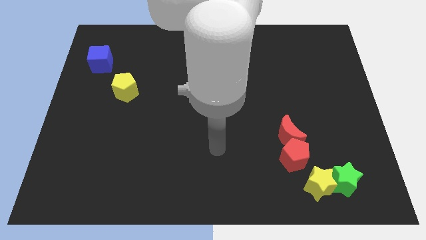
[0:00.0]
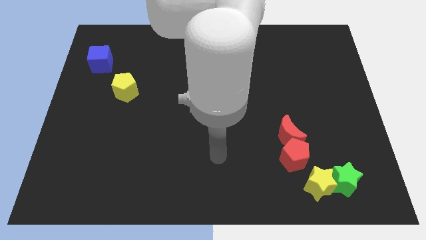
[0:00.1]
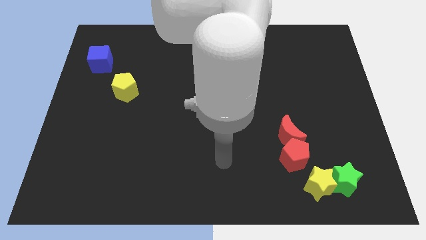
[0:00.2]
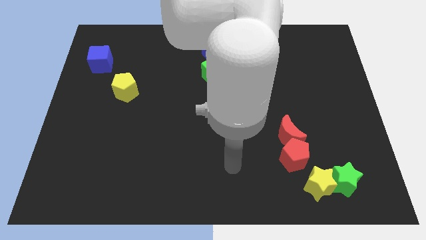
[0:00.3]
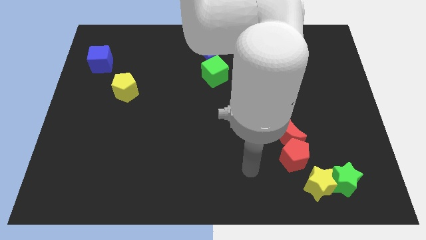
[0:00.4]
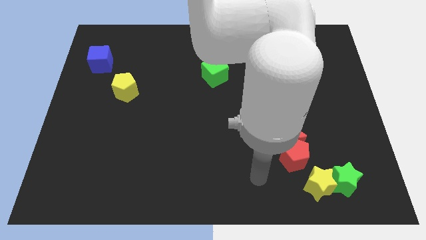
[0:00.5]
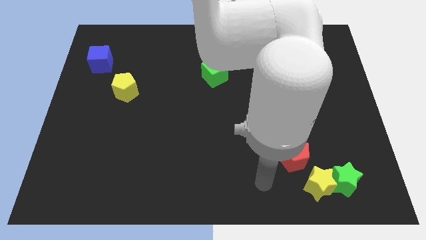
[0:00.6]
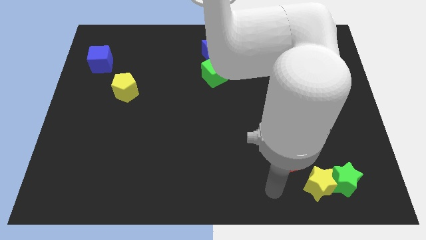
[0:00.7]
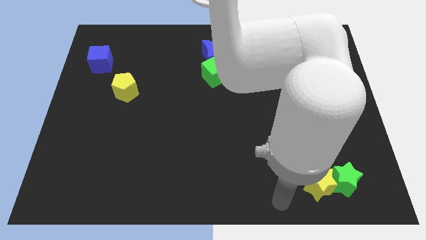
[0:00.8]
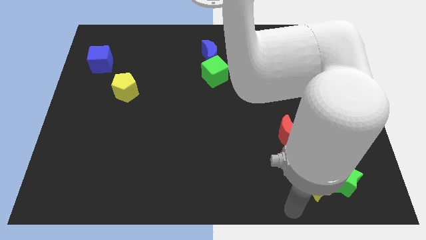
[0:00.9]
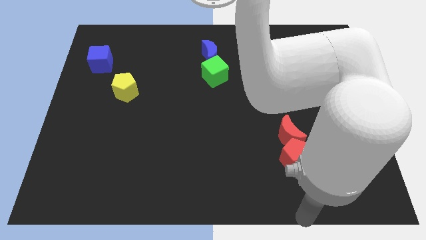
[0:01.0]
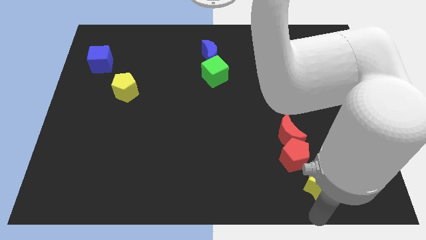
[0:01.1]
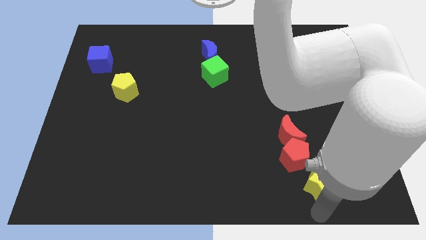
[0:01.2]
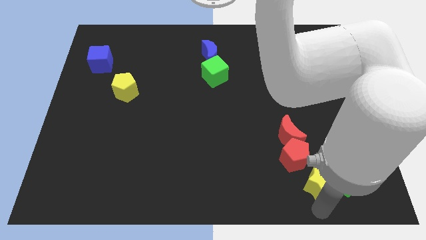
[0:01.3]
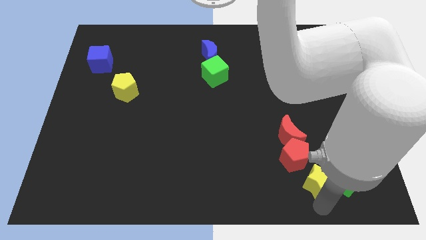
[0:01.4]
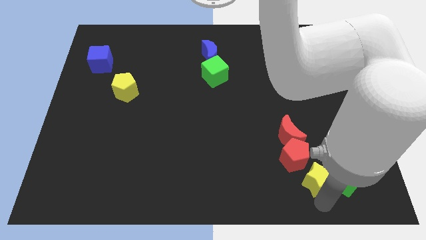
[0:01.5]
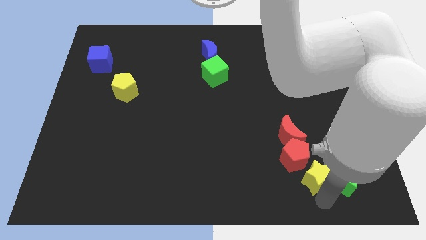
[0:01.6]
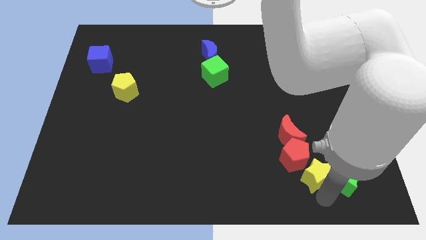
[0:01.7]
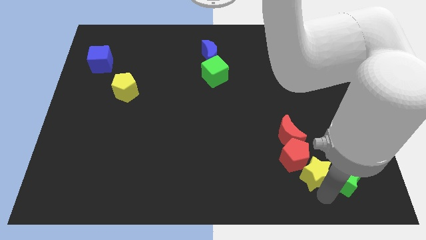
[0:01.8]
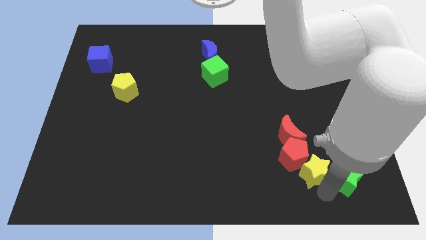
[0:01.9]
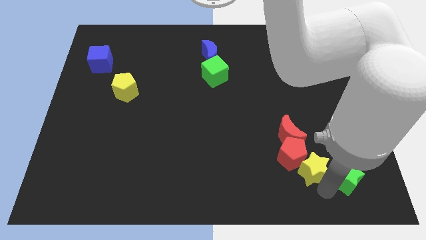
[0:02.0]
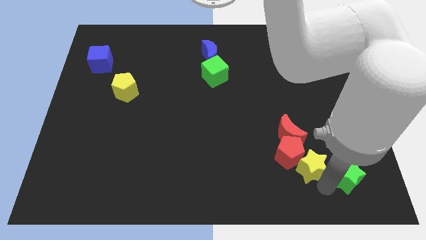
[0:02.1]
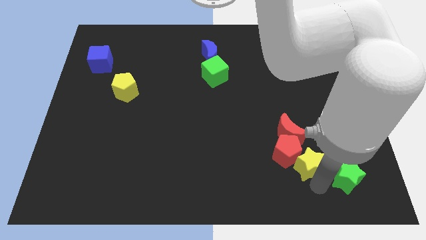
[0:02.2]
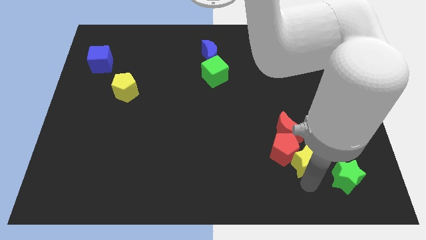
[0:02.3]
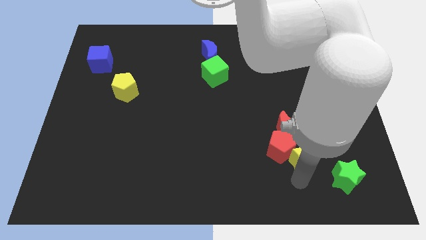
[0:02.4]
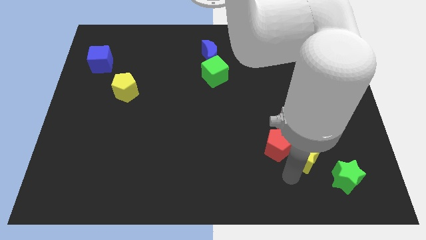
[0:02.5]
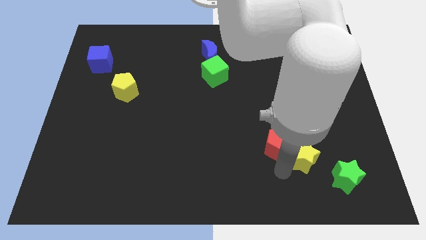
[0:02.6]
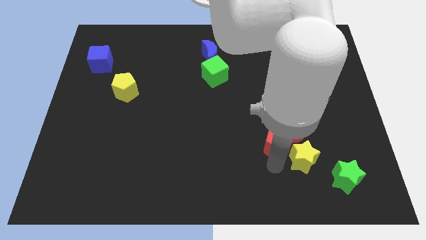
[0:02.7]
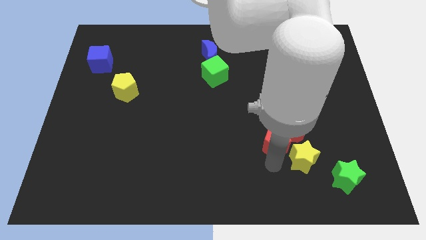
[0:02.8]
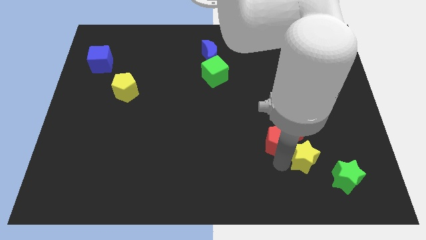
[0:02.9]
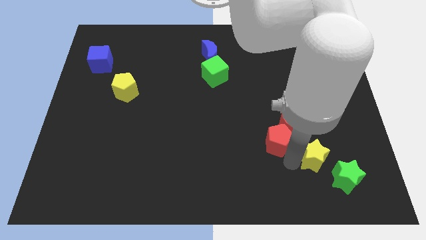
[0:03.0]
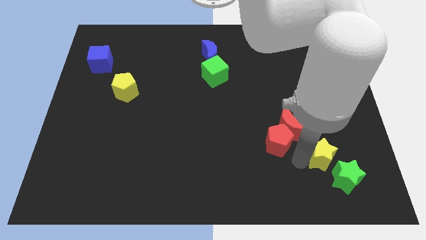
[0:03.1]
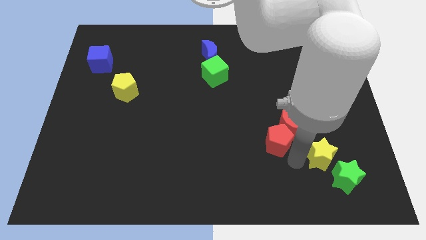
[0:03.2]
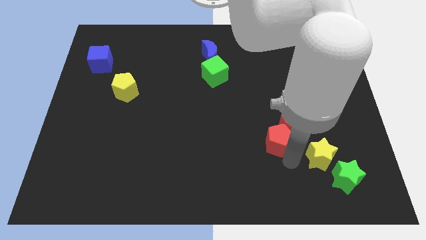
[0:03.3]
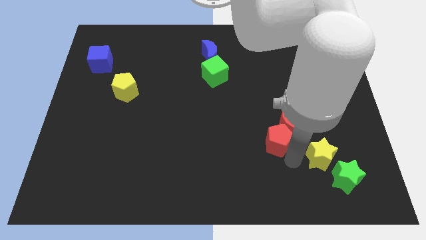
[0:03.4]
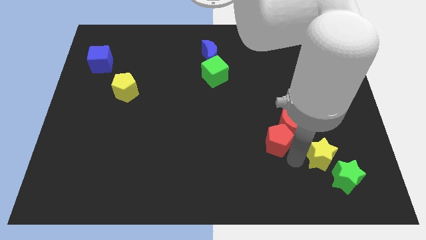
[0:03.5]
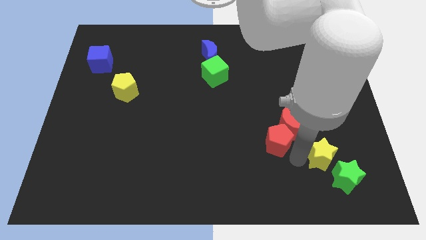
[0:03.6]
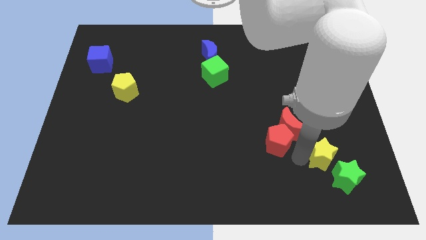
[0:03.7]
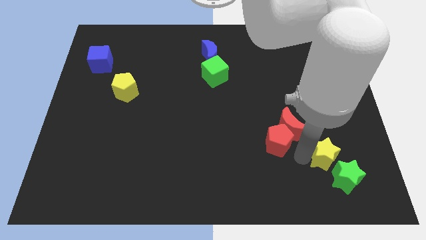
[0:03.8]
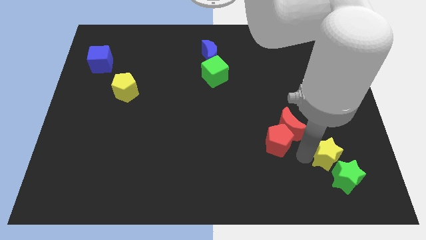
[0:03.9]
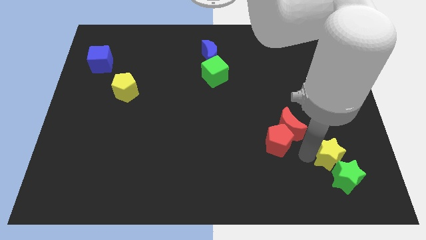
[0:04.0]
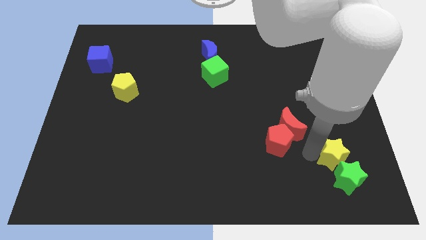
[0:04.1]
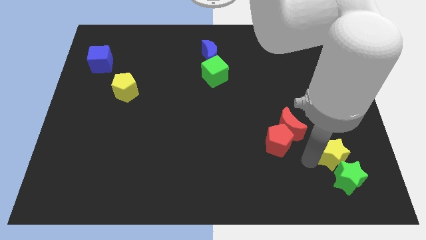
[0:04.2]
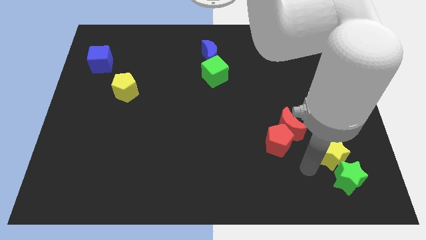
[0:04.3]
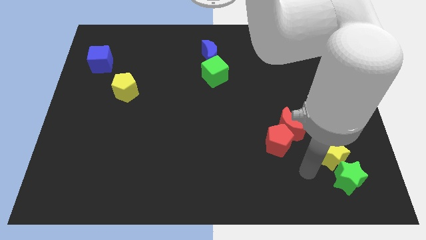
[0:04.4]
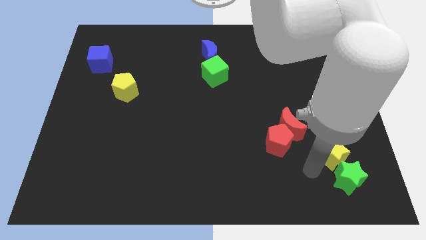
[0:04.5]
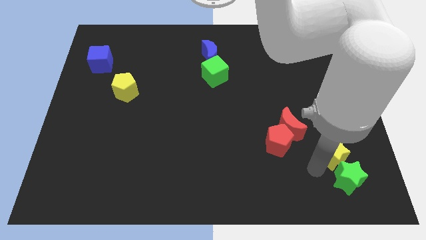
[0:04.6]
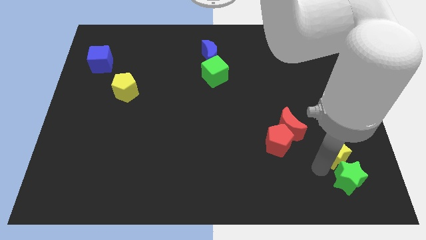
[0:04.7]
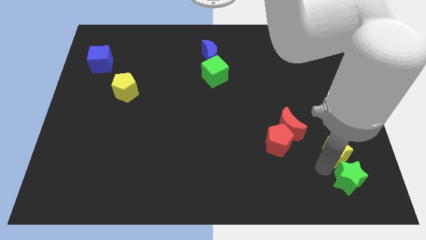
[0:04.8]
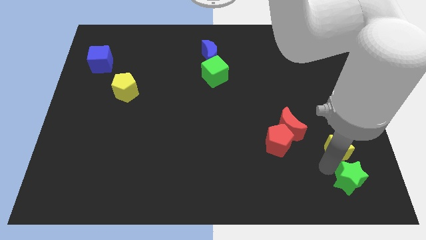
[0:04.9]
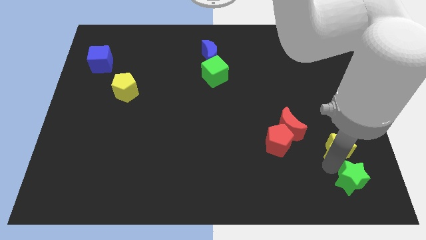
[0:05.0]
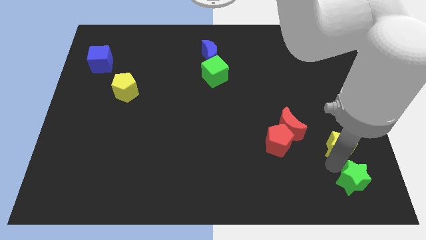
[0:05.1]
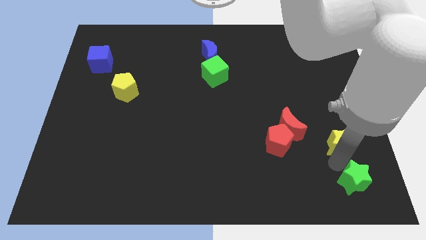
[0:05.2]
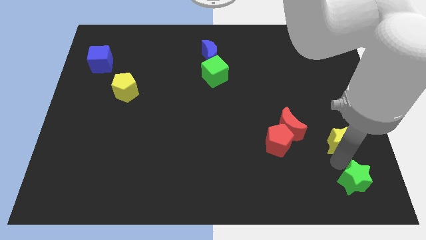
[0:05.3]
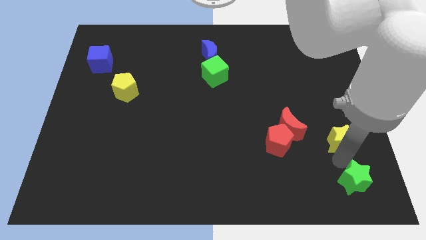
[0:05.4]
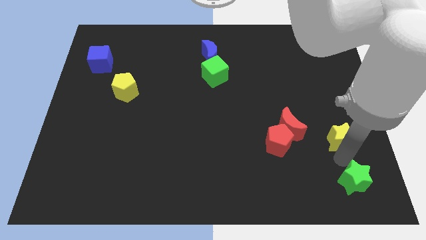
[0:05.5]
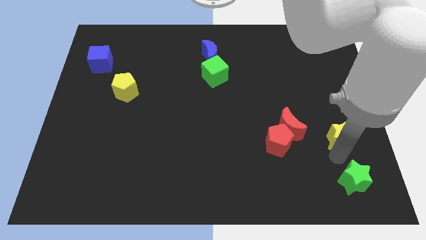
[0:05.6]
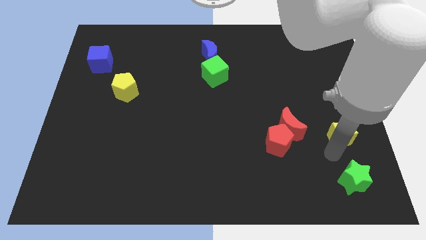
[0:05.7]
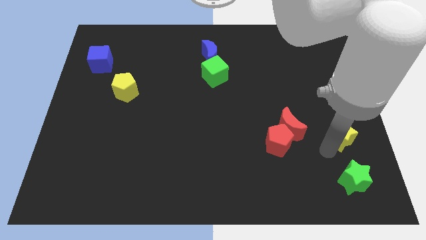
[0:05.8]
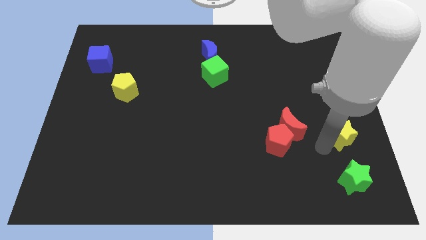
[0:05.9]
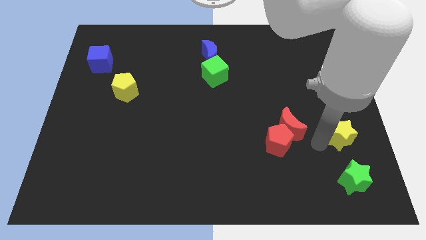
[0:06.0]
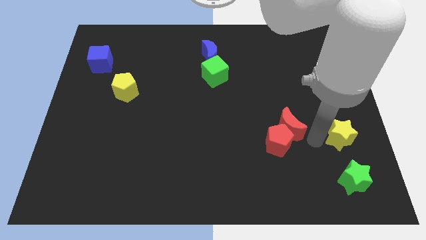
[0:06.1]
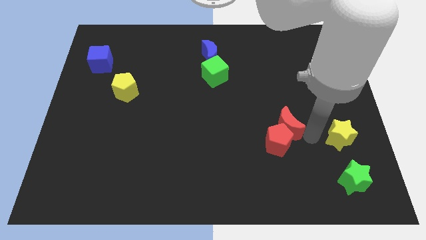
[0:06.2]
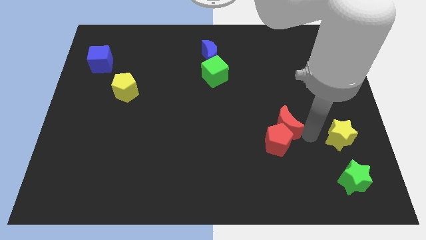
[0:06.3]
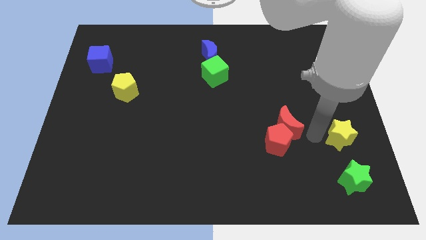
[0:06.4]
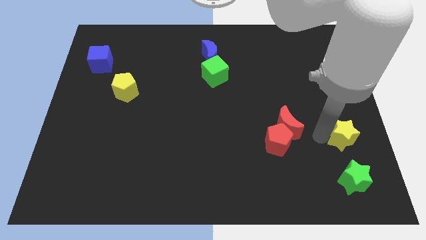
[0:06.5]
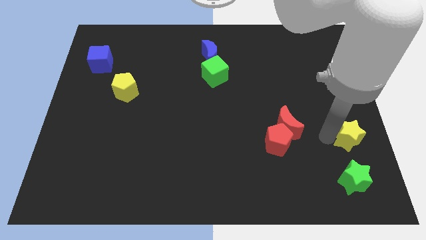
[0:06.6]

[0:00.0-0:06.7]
slide the yellow star to the center right
